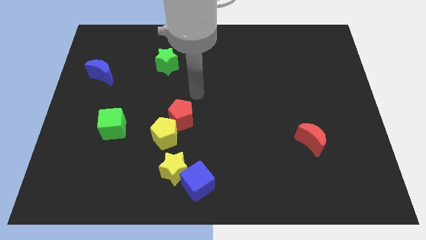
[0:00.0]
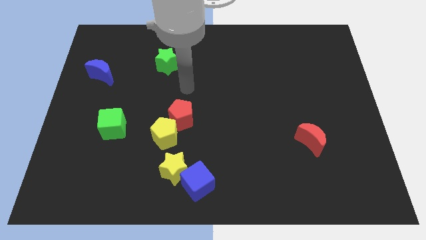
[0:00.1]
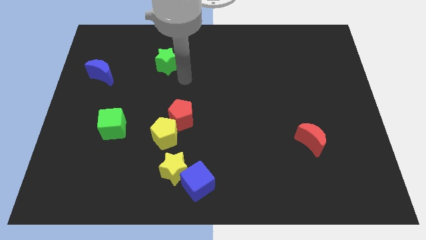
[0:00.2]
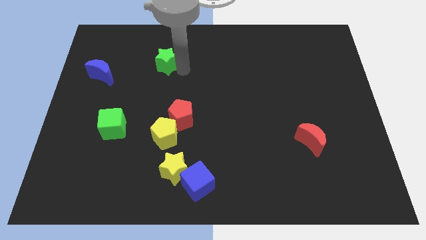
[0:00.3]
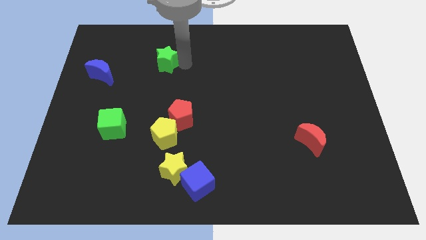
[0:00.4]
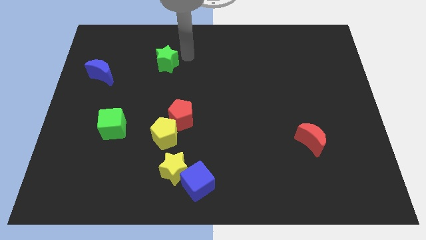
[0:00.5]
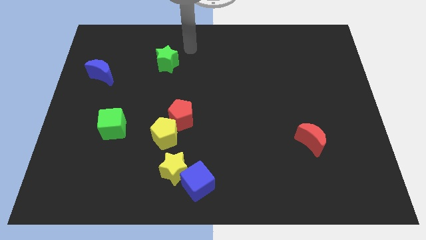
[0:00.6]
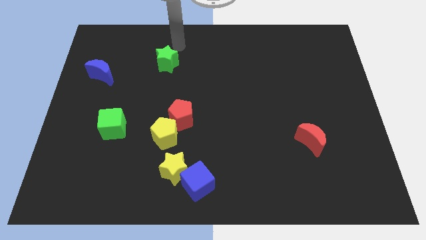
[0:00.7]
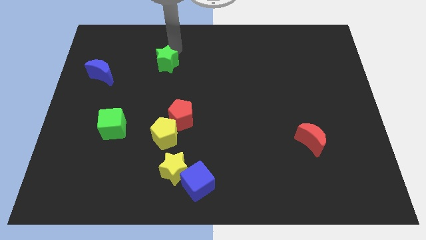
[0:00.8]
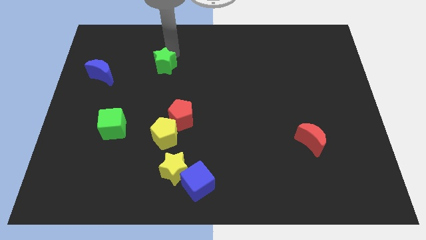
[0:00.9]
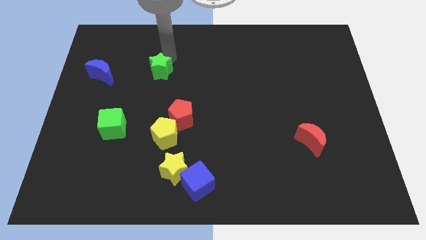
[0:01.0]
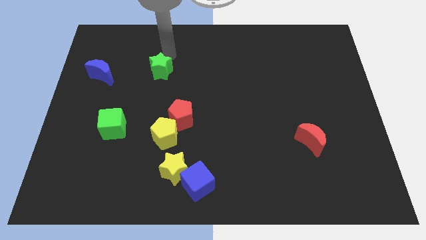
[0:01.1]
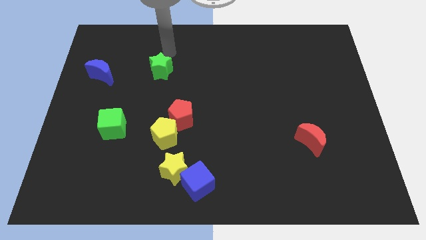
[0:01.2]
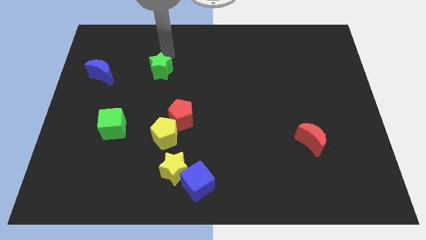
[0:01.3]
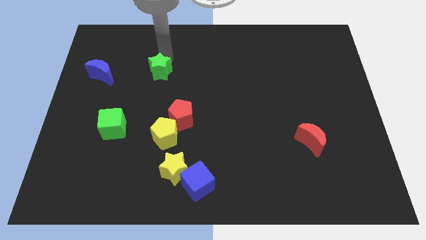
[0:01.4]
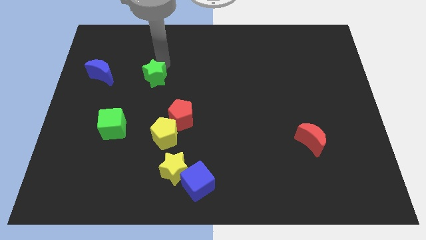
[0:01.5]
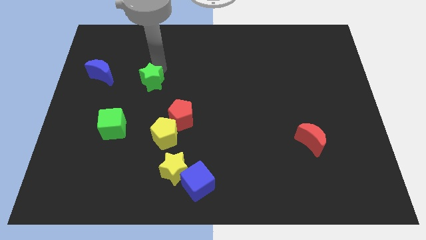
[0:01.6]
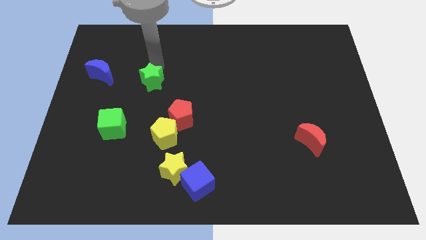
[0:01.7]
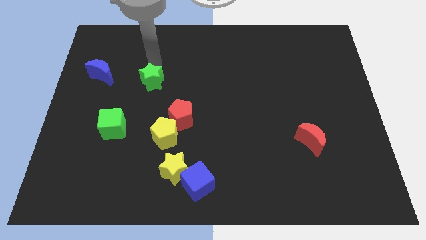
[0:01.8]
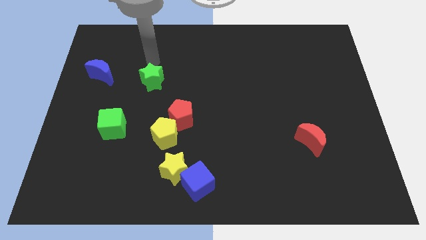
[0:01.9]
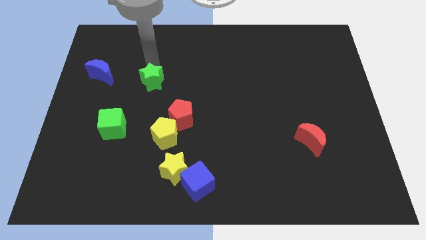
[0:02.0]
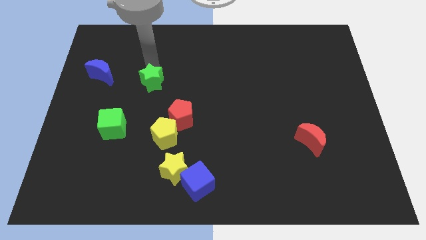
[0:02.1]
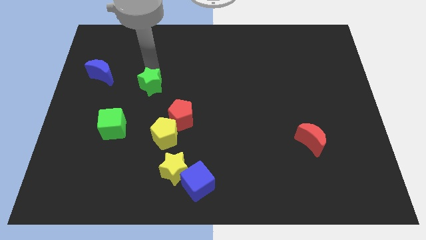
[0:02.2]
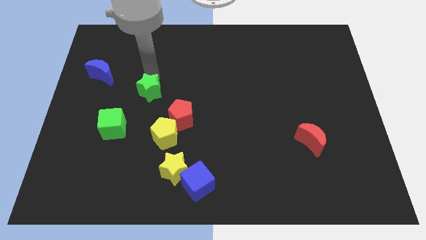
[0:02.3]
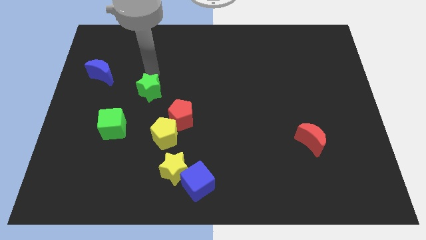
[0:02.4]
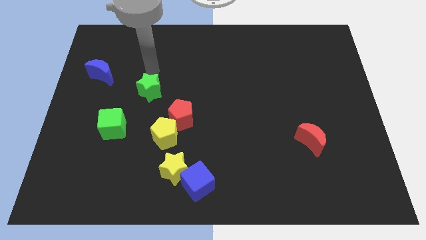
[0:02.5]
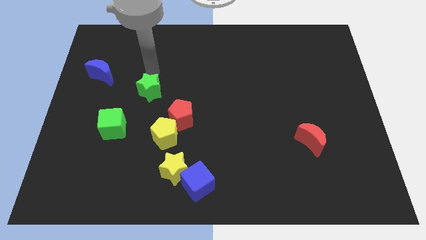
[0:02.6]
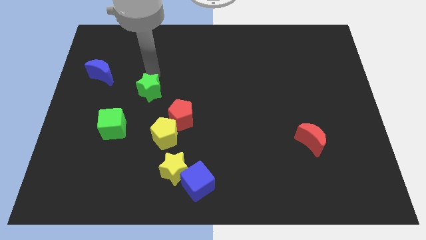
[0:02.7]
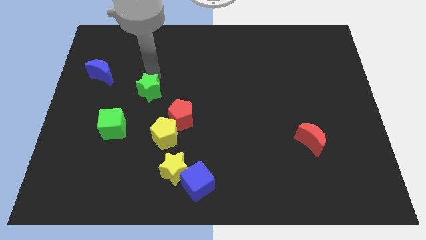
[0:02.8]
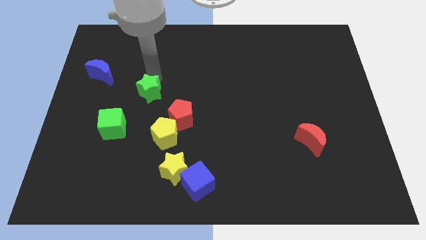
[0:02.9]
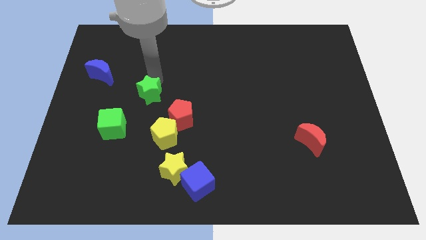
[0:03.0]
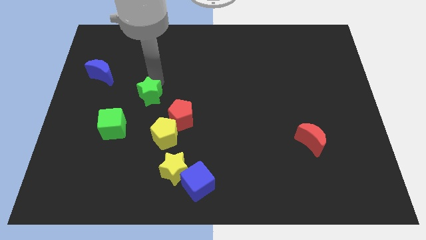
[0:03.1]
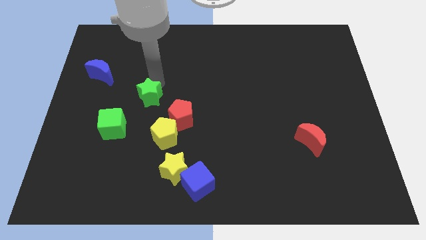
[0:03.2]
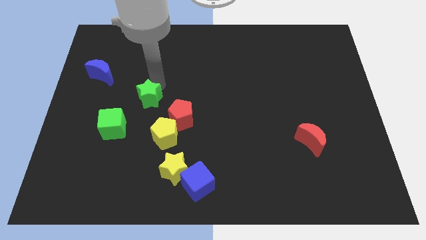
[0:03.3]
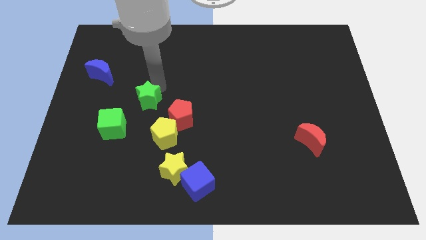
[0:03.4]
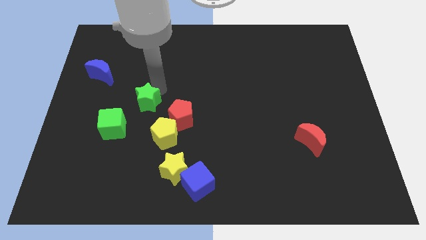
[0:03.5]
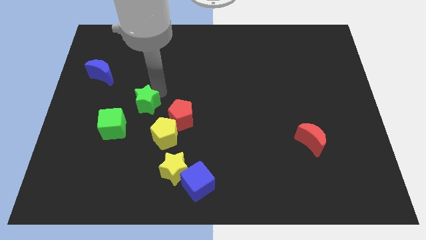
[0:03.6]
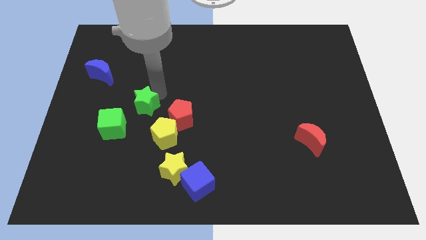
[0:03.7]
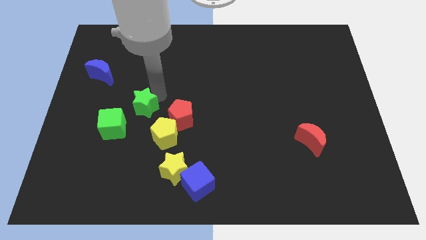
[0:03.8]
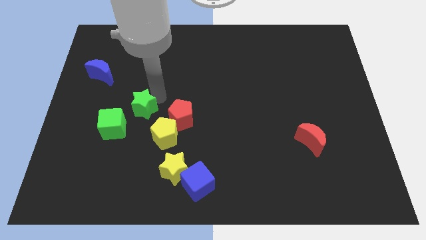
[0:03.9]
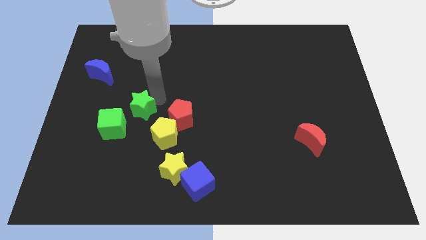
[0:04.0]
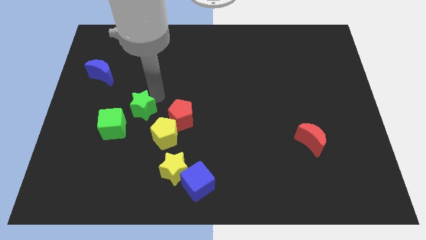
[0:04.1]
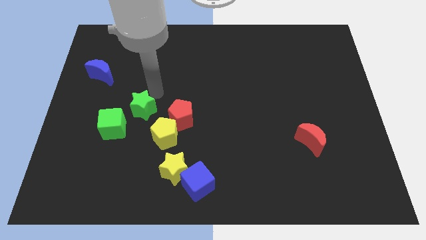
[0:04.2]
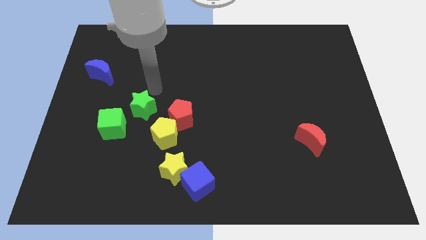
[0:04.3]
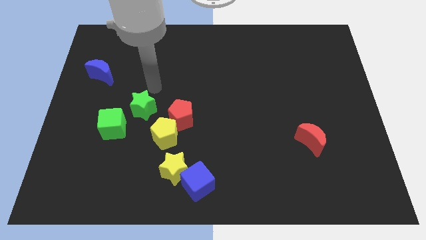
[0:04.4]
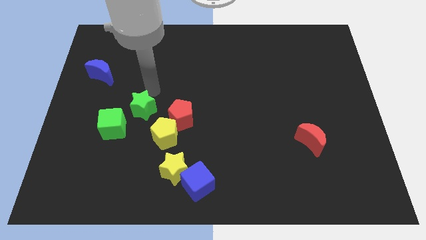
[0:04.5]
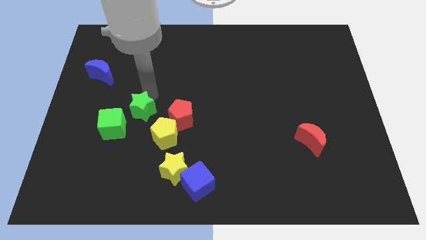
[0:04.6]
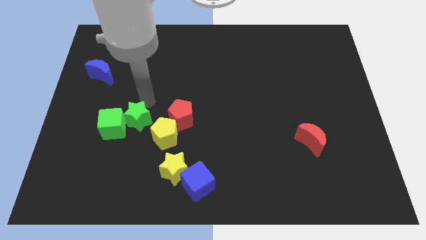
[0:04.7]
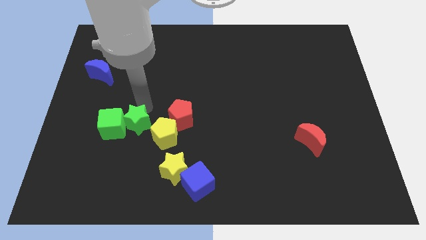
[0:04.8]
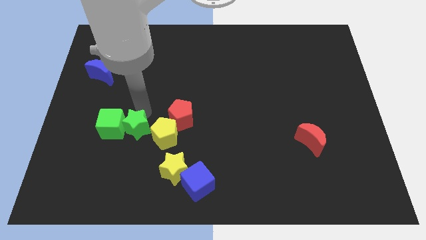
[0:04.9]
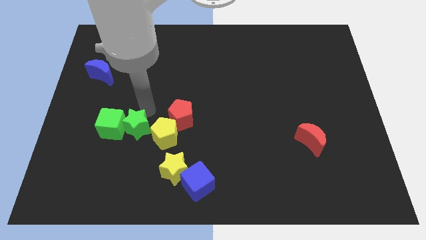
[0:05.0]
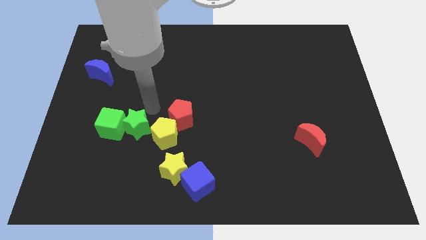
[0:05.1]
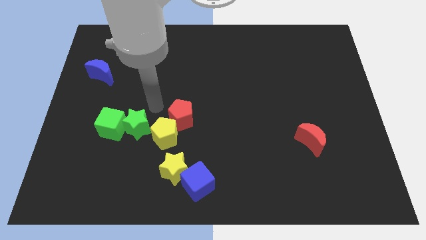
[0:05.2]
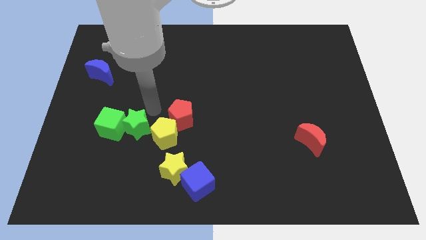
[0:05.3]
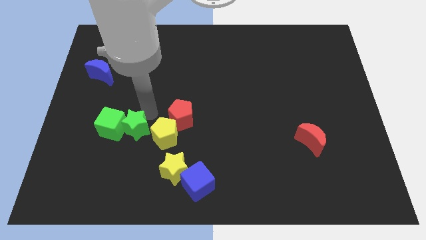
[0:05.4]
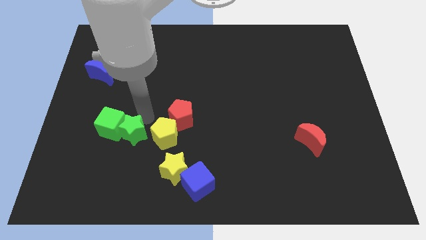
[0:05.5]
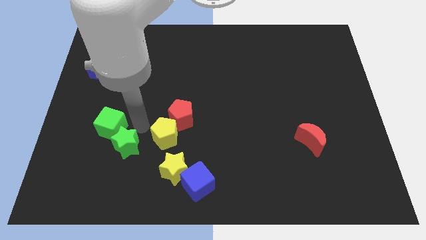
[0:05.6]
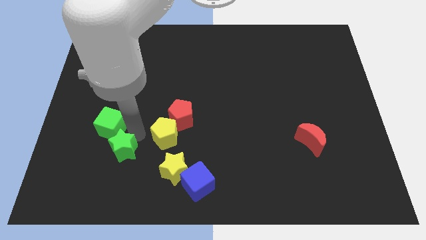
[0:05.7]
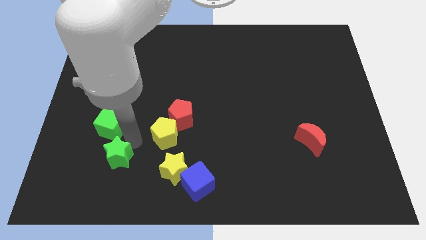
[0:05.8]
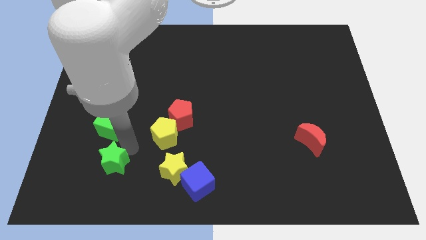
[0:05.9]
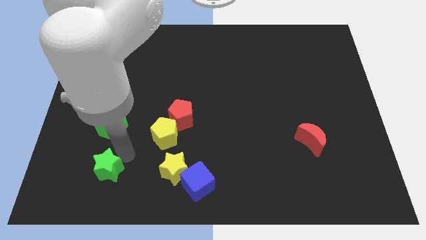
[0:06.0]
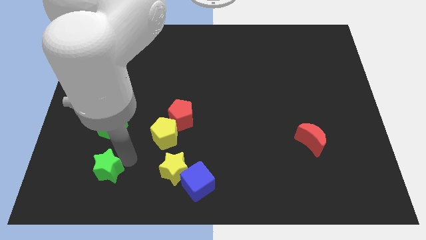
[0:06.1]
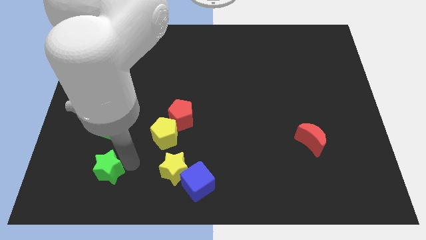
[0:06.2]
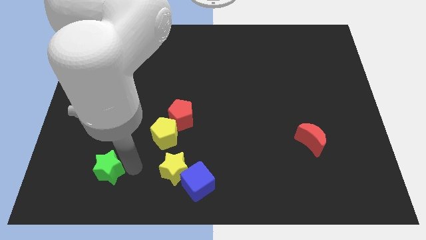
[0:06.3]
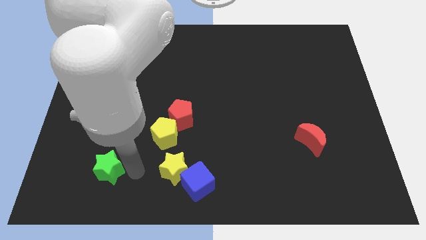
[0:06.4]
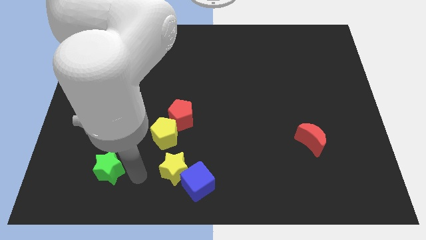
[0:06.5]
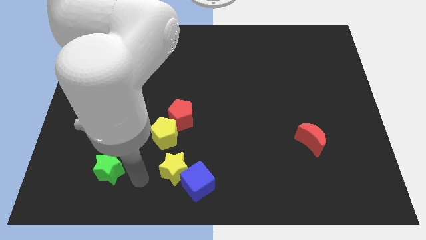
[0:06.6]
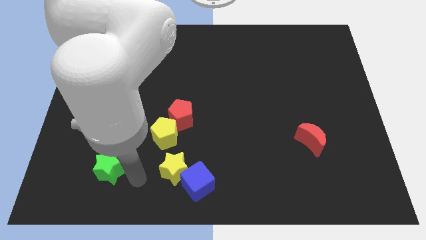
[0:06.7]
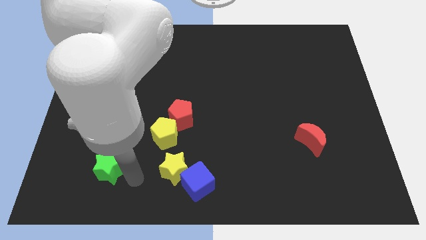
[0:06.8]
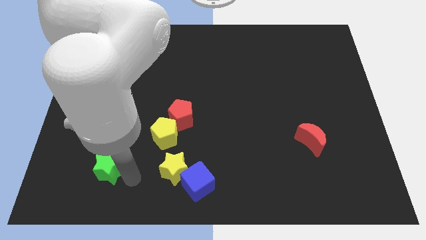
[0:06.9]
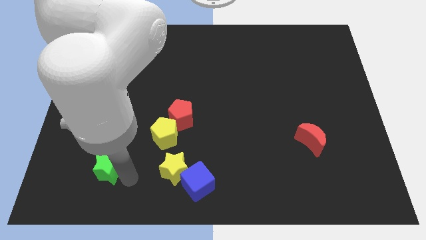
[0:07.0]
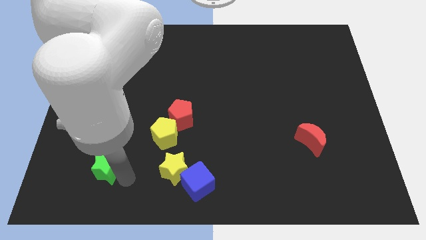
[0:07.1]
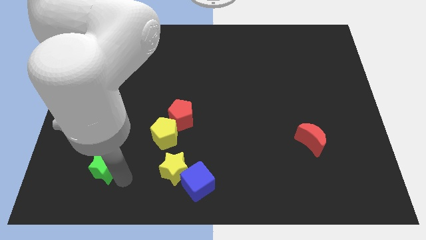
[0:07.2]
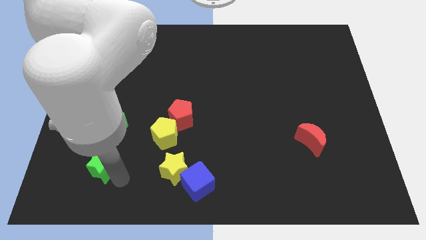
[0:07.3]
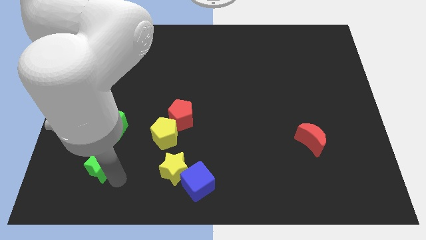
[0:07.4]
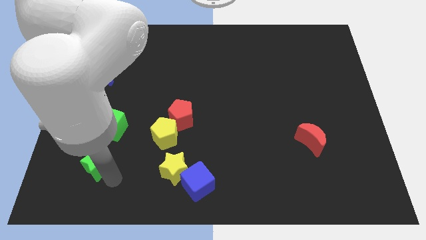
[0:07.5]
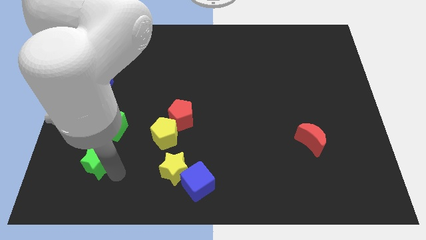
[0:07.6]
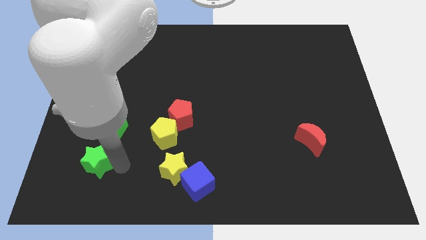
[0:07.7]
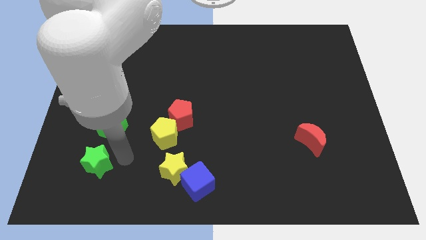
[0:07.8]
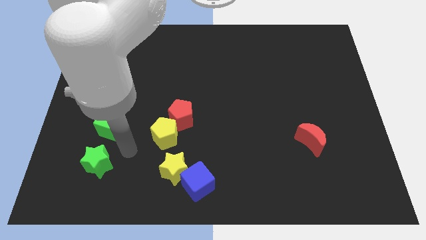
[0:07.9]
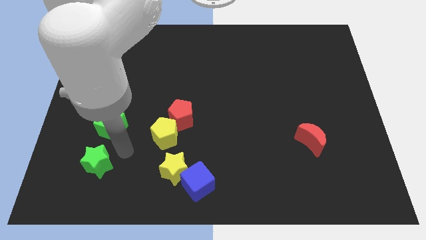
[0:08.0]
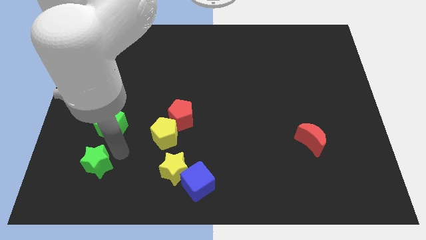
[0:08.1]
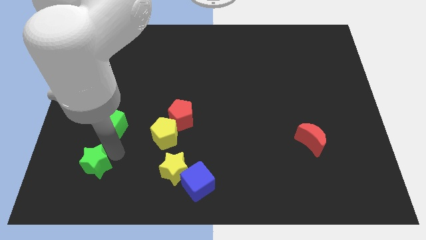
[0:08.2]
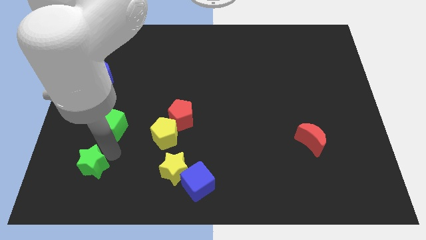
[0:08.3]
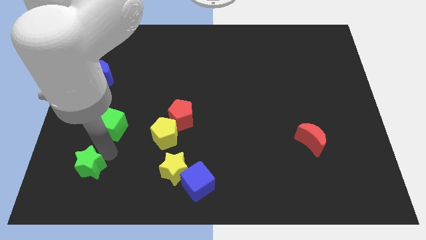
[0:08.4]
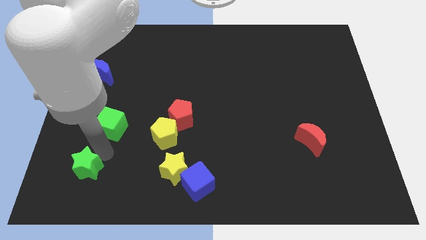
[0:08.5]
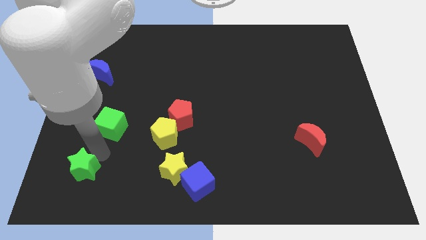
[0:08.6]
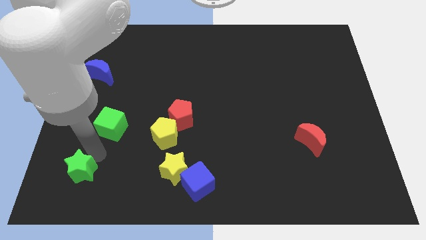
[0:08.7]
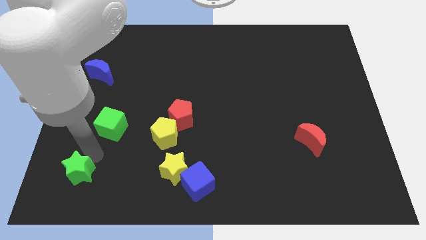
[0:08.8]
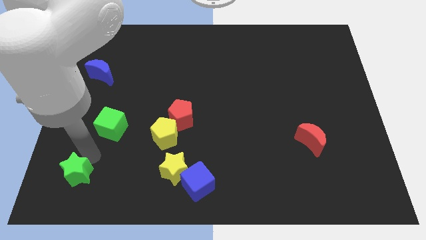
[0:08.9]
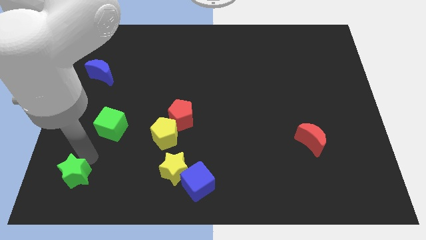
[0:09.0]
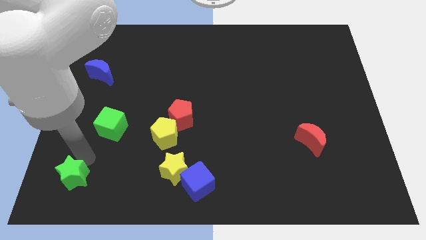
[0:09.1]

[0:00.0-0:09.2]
put the green star to the lower left corner
